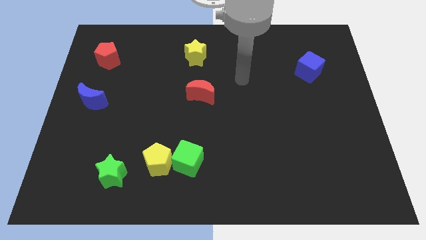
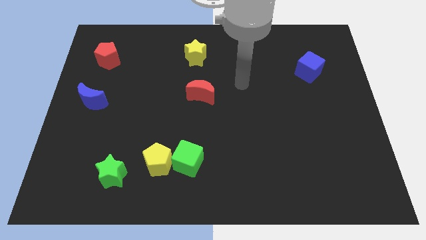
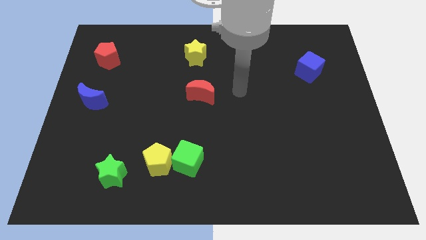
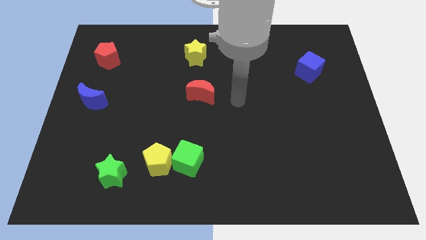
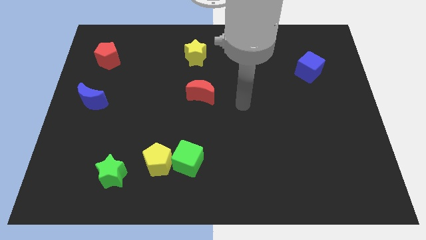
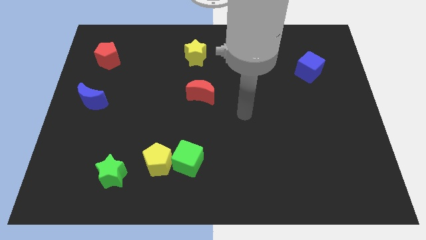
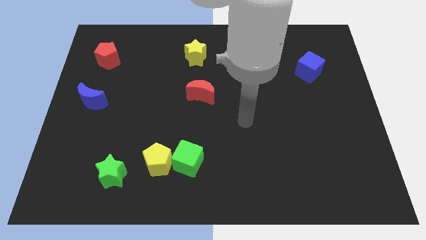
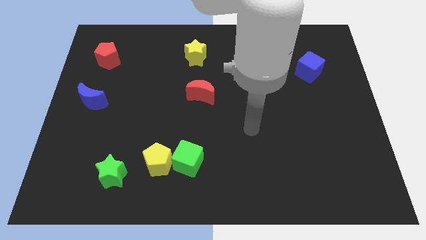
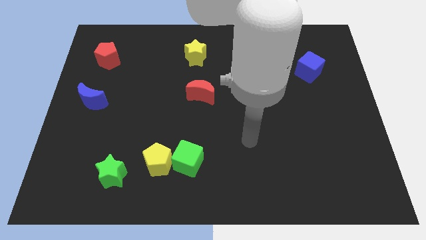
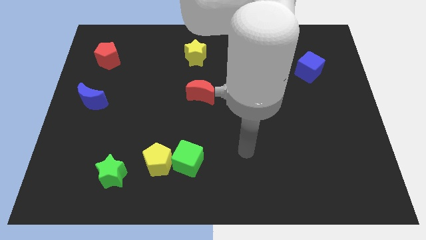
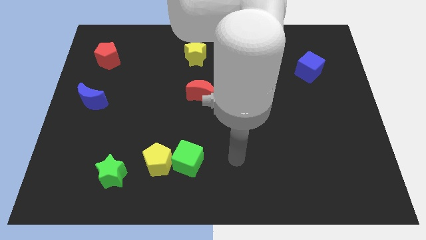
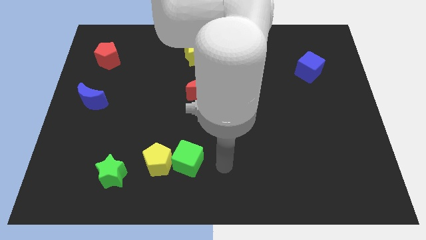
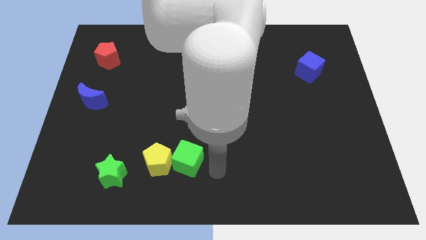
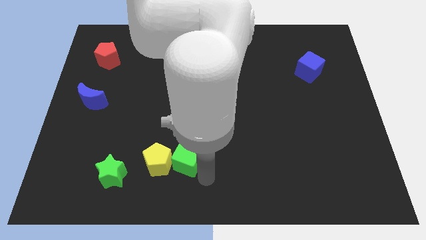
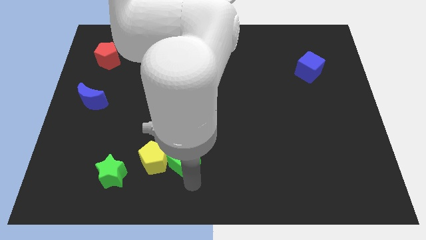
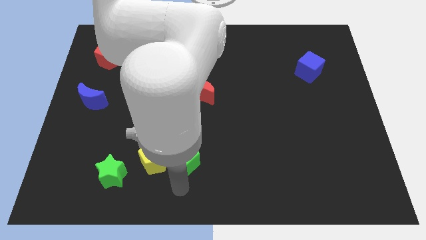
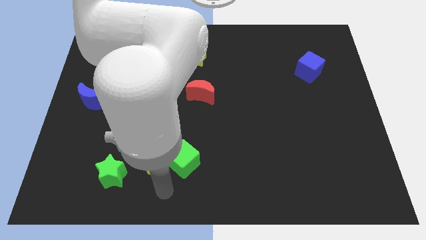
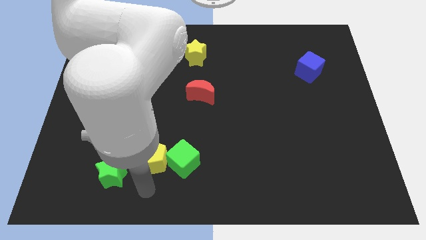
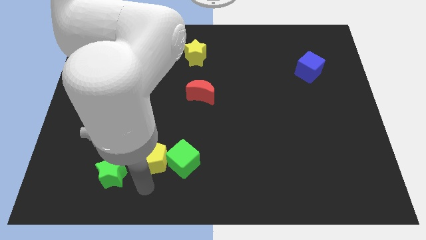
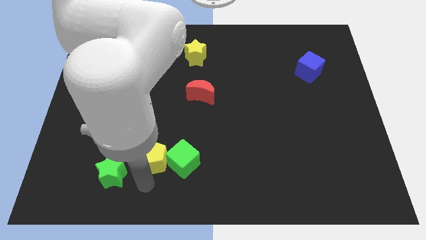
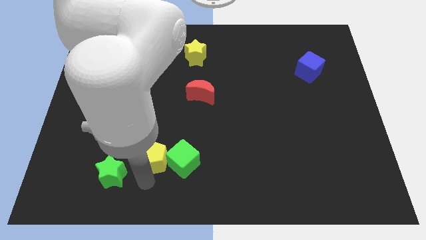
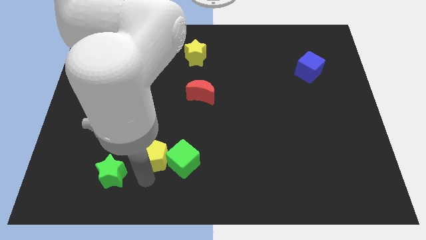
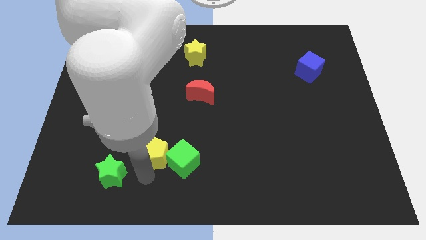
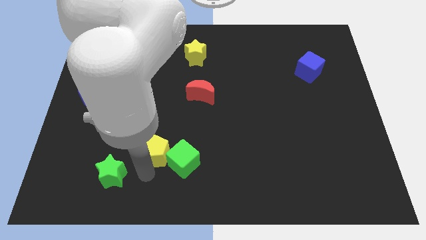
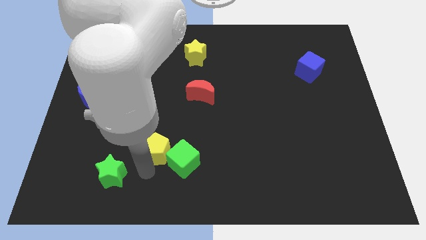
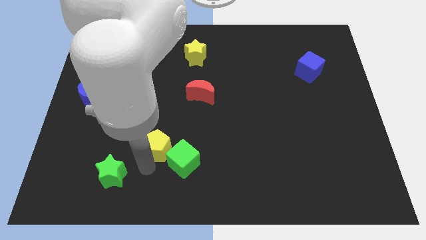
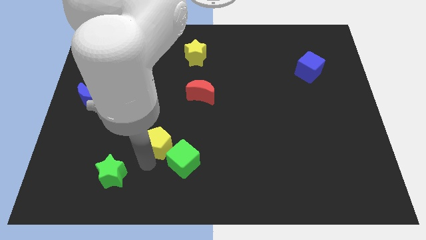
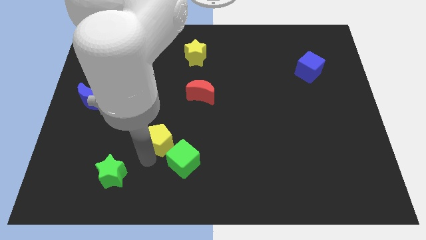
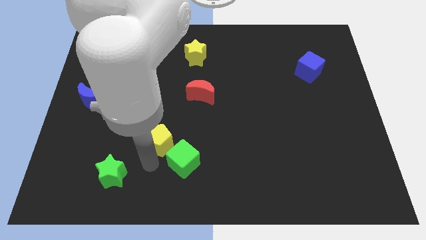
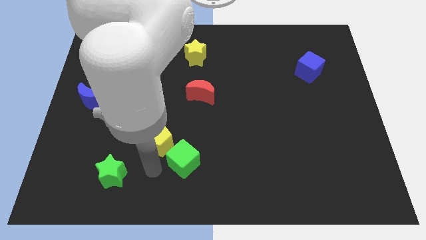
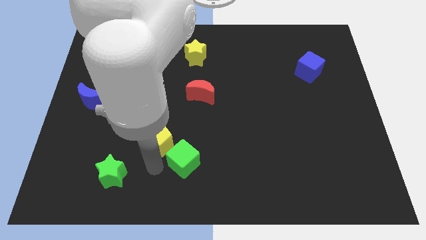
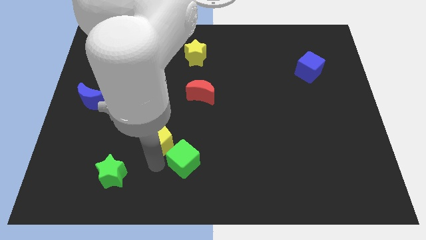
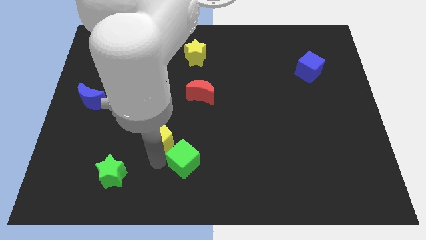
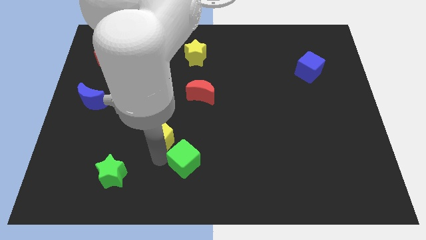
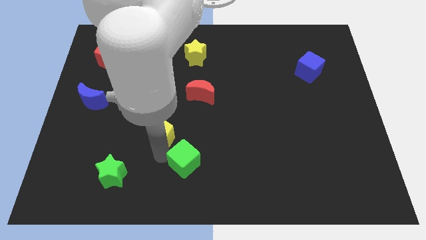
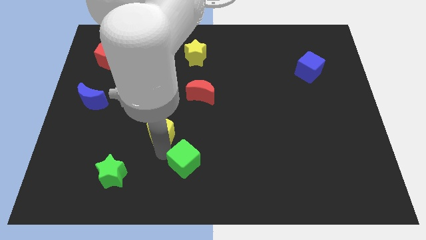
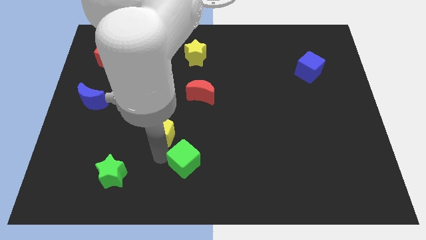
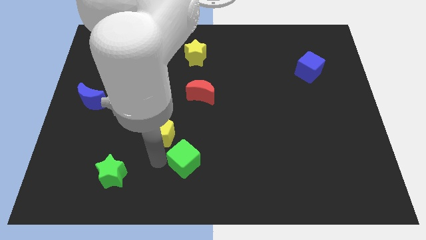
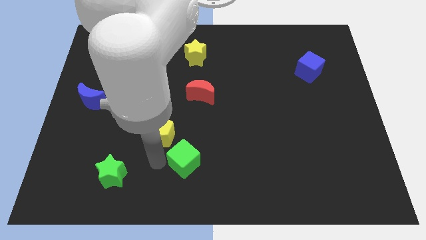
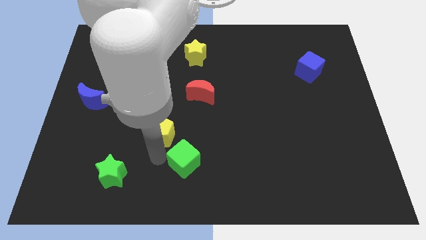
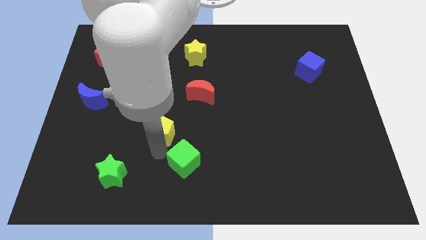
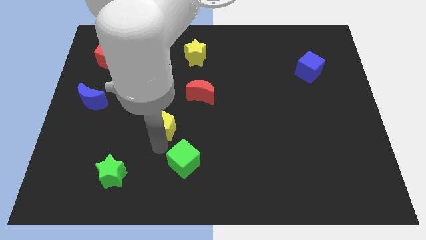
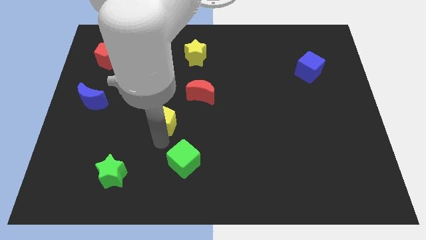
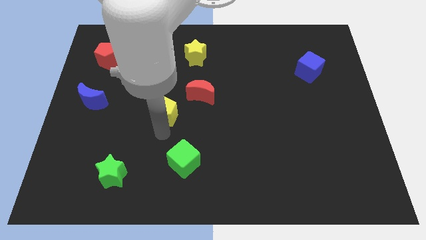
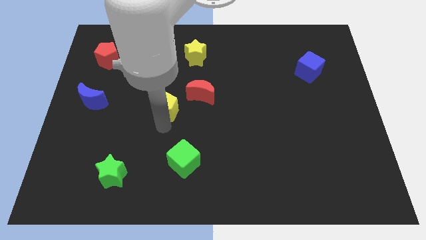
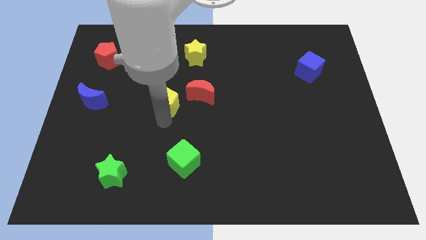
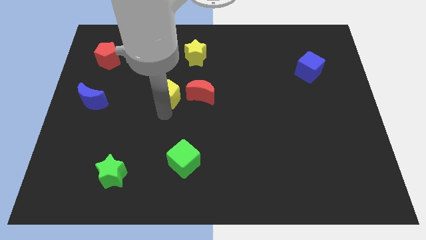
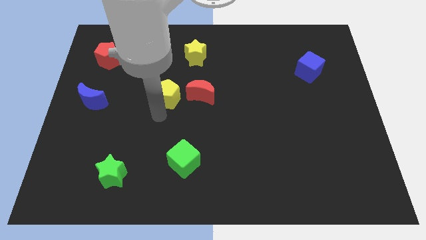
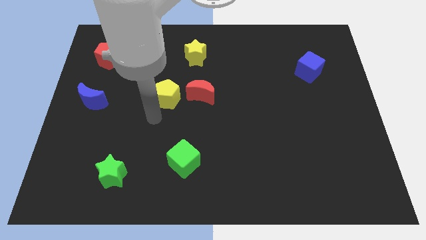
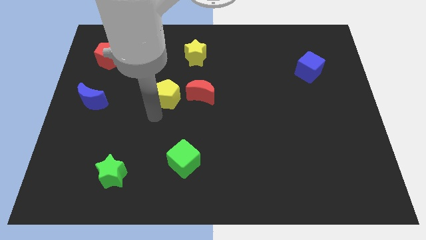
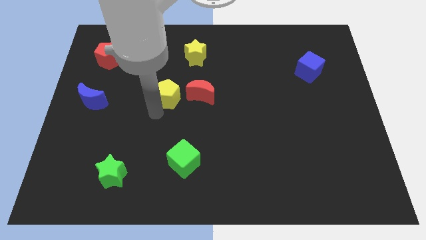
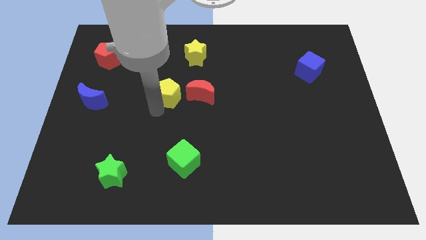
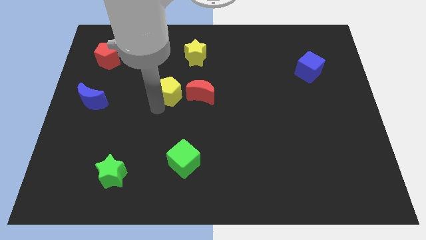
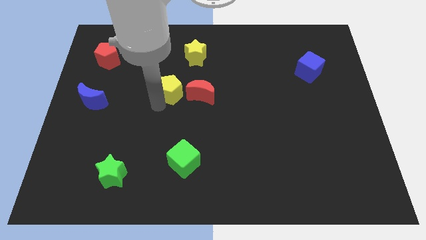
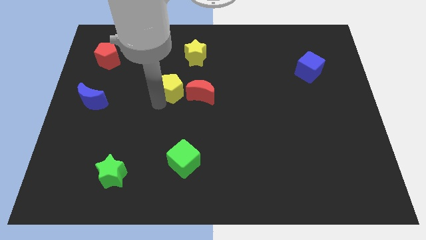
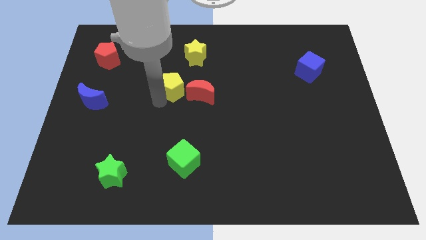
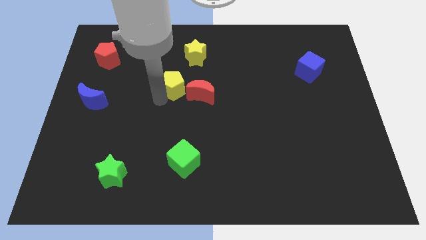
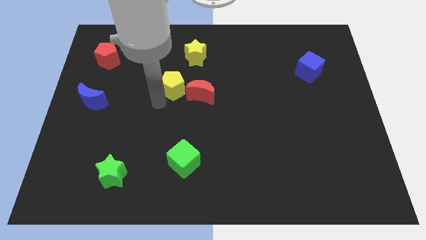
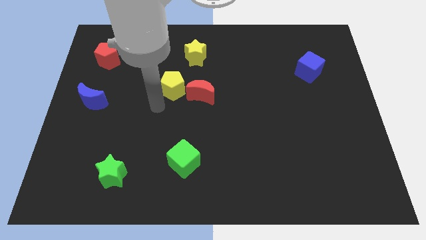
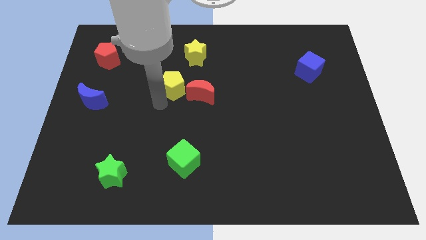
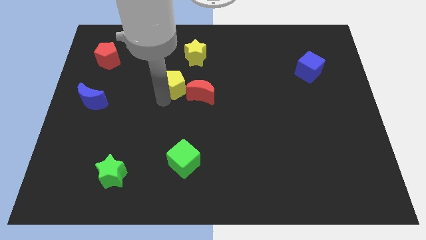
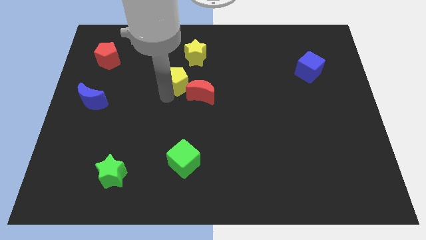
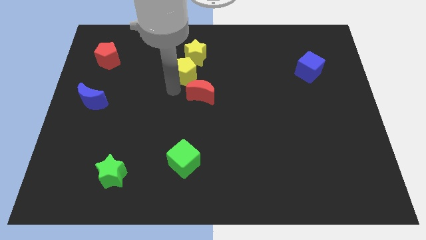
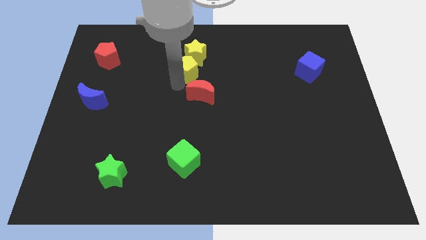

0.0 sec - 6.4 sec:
put the yellow pentagon next to the yellow star
